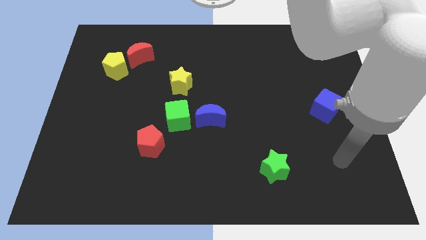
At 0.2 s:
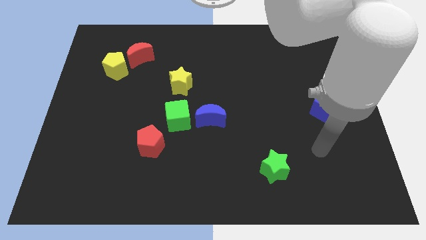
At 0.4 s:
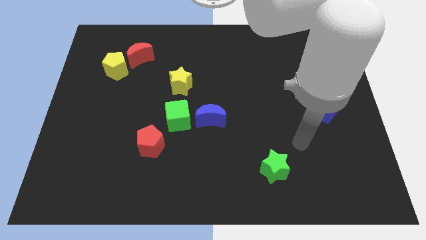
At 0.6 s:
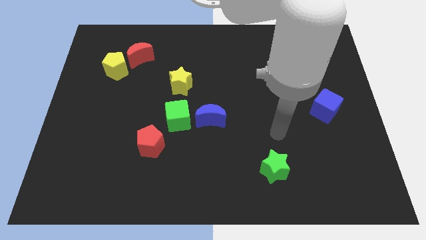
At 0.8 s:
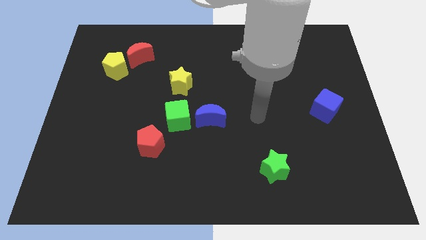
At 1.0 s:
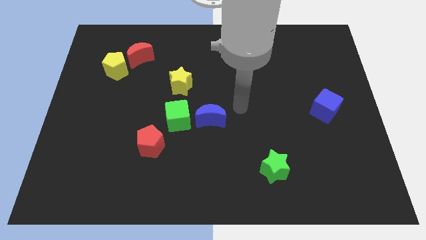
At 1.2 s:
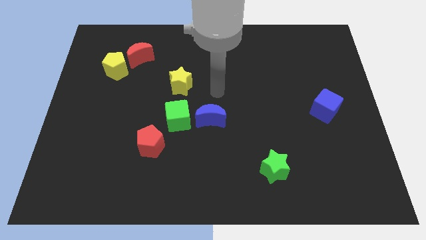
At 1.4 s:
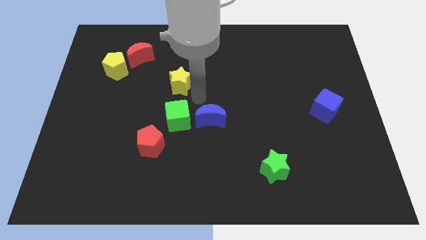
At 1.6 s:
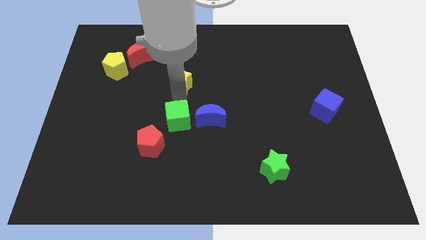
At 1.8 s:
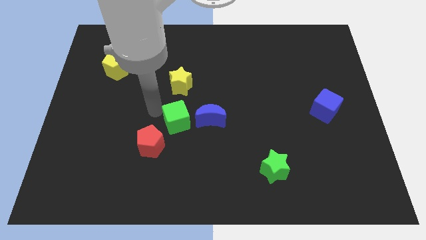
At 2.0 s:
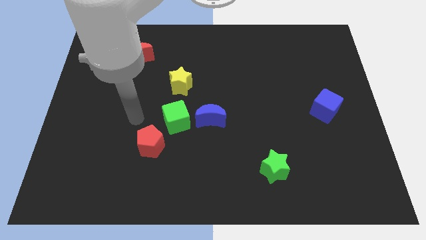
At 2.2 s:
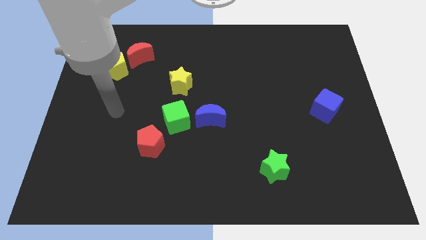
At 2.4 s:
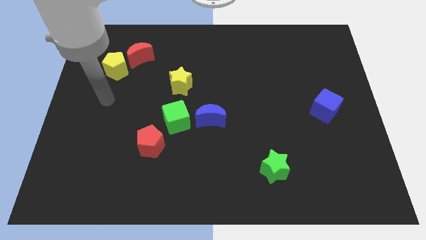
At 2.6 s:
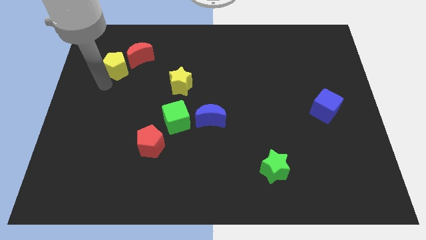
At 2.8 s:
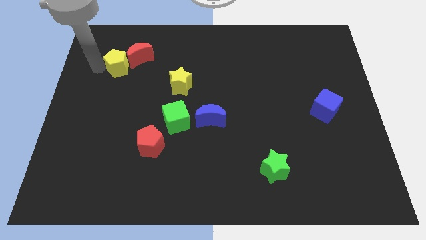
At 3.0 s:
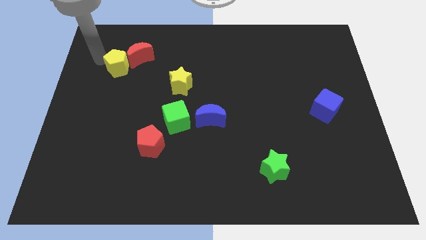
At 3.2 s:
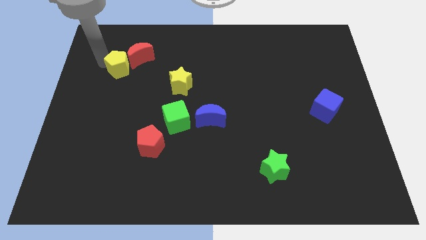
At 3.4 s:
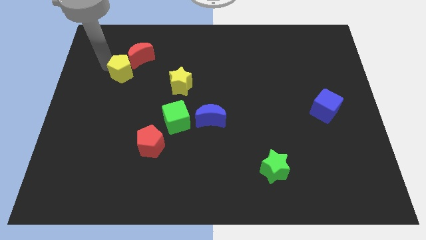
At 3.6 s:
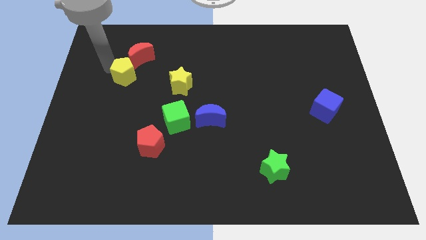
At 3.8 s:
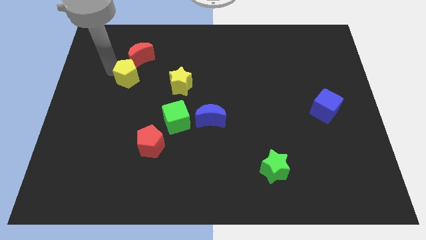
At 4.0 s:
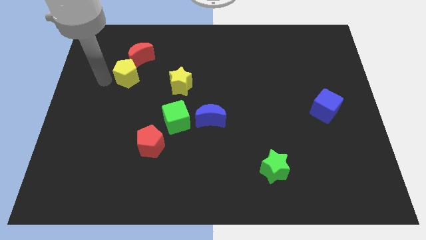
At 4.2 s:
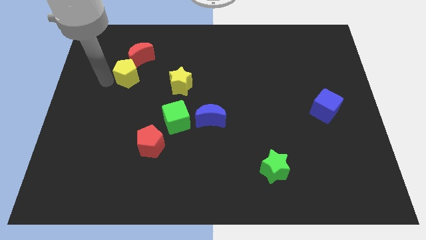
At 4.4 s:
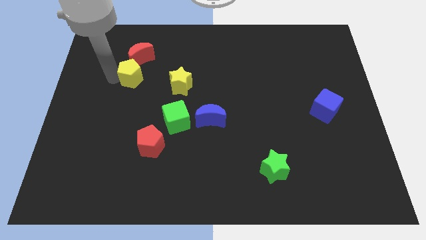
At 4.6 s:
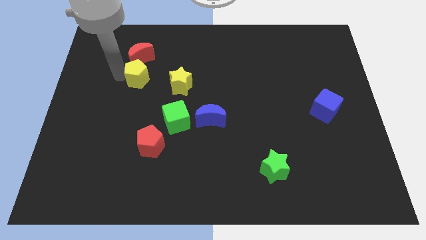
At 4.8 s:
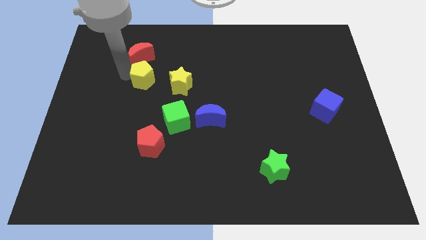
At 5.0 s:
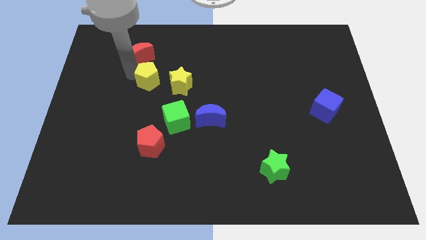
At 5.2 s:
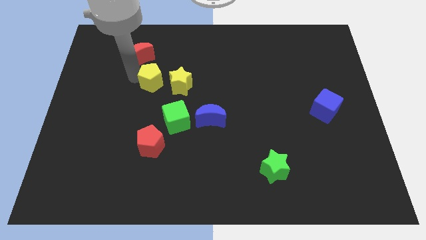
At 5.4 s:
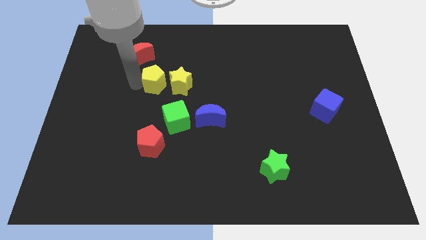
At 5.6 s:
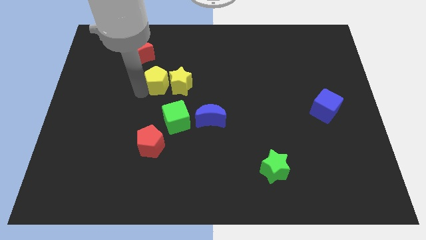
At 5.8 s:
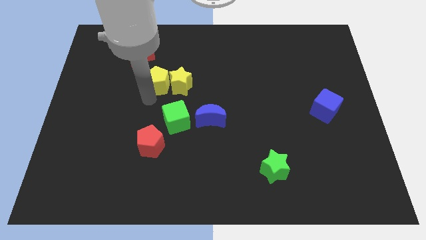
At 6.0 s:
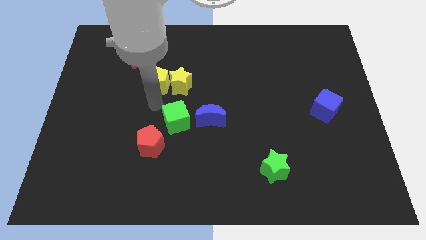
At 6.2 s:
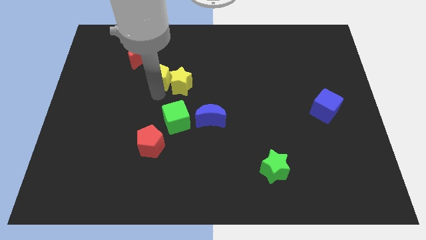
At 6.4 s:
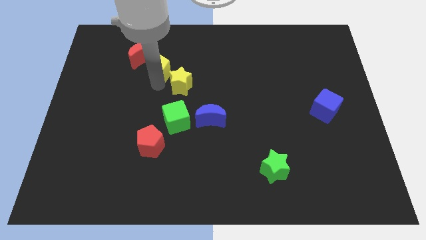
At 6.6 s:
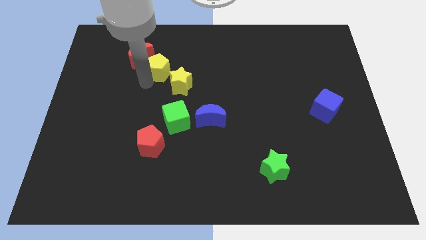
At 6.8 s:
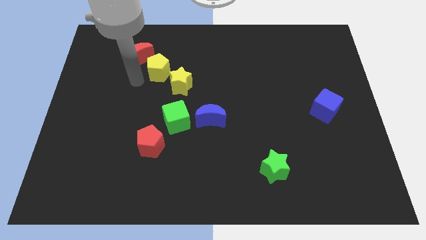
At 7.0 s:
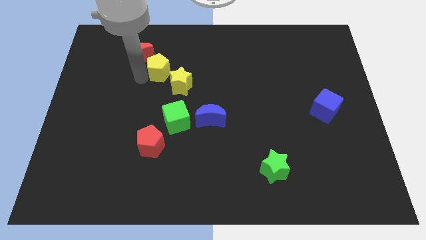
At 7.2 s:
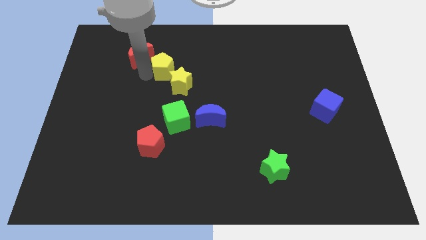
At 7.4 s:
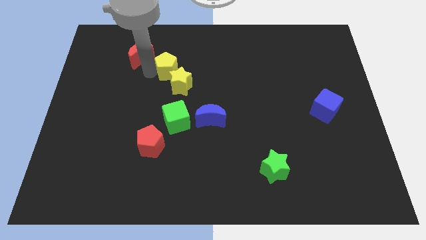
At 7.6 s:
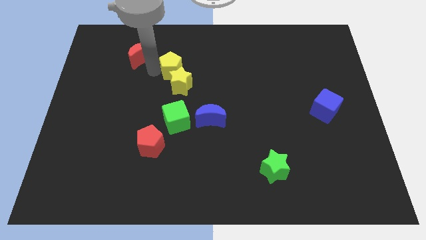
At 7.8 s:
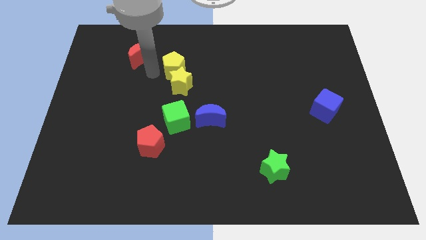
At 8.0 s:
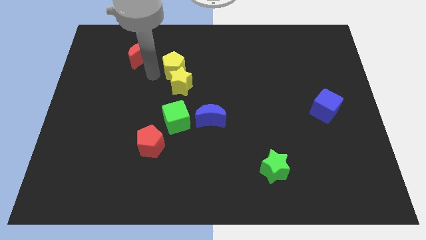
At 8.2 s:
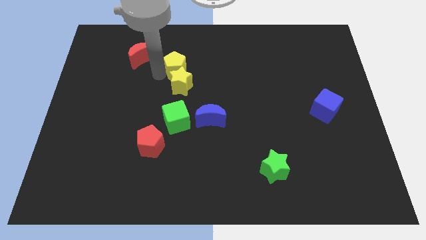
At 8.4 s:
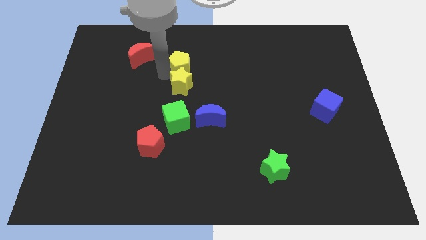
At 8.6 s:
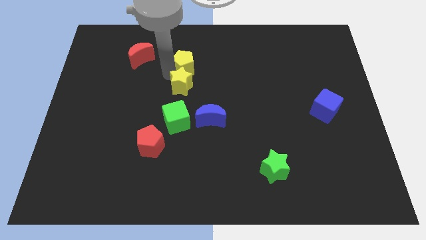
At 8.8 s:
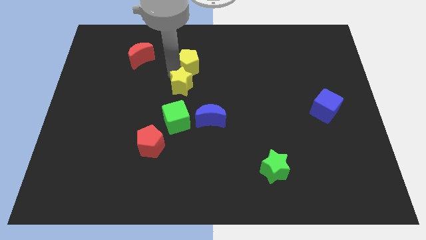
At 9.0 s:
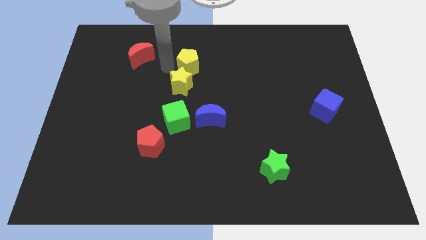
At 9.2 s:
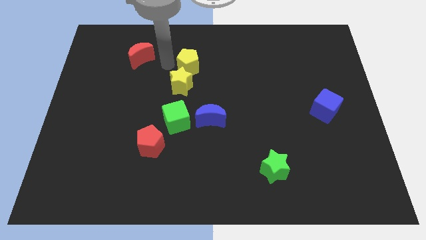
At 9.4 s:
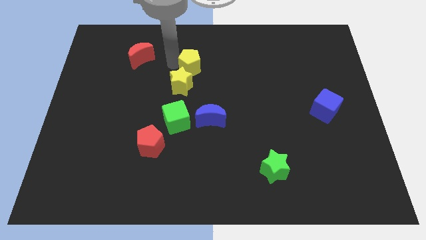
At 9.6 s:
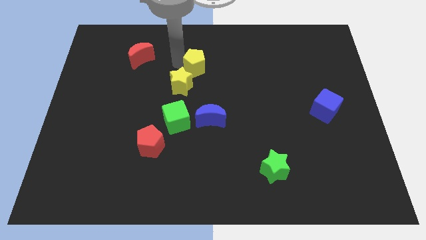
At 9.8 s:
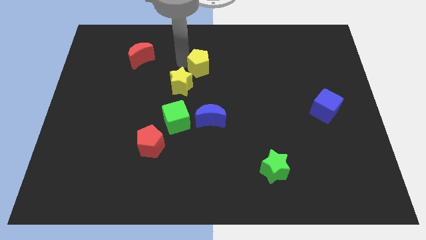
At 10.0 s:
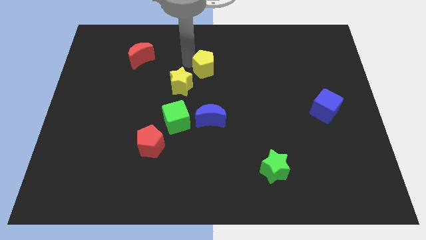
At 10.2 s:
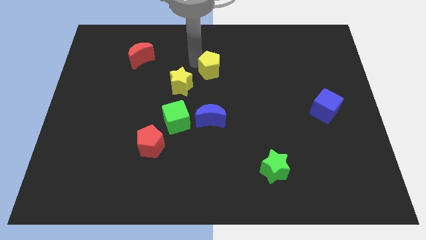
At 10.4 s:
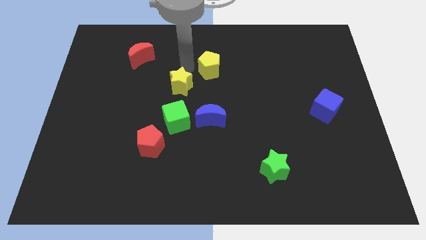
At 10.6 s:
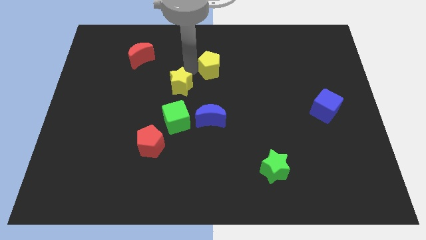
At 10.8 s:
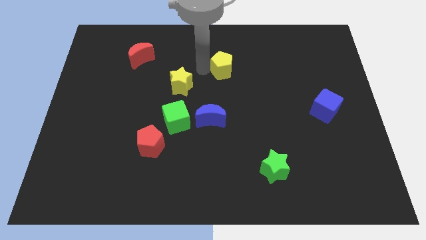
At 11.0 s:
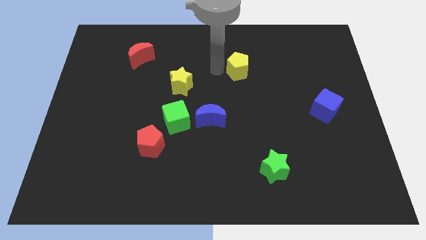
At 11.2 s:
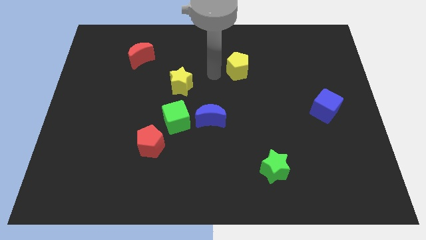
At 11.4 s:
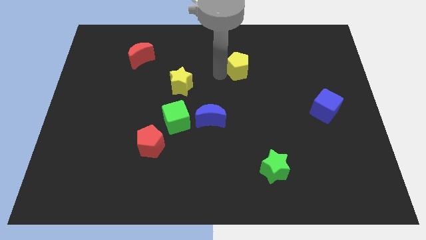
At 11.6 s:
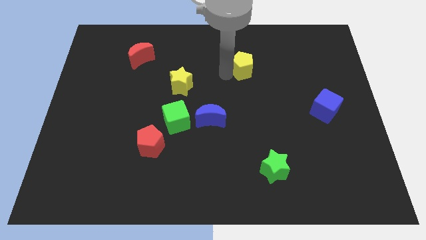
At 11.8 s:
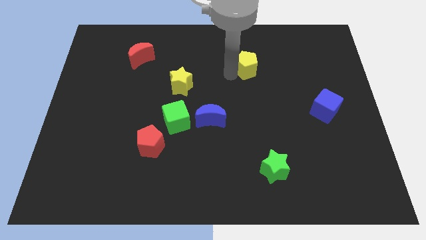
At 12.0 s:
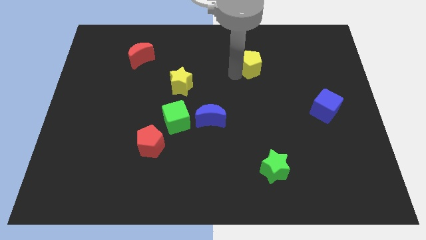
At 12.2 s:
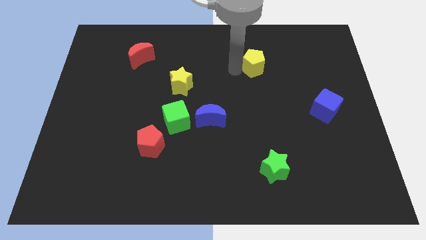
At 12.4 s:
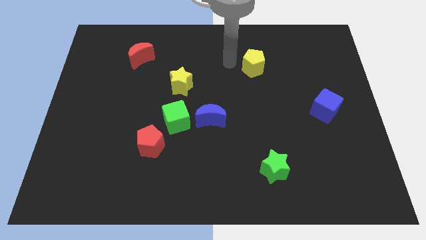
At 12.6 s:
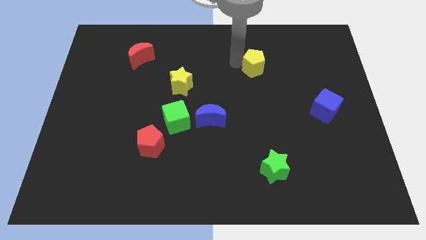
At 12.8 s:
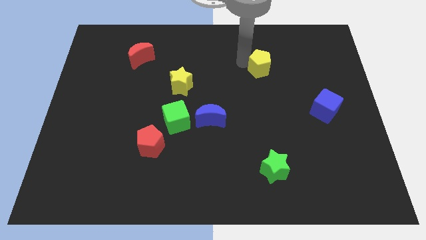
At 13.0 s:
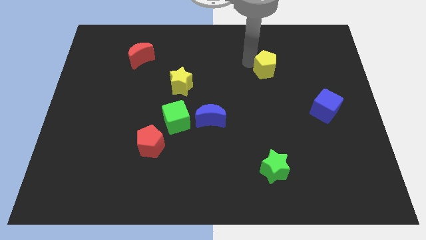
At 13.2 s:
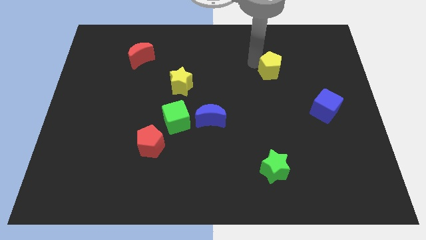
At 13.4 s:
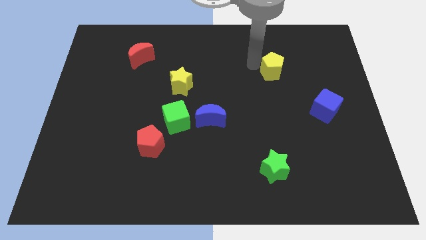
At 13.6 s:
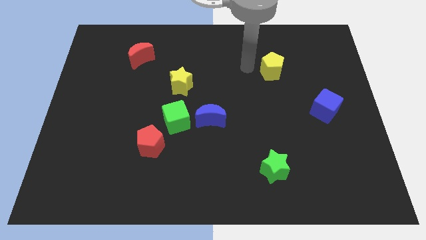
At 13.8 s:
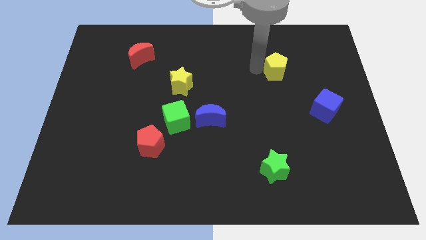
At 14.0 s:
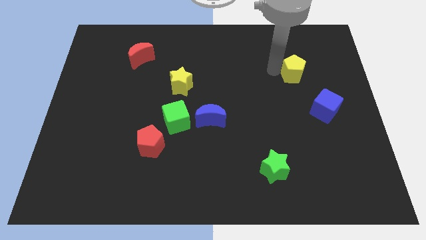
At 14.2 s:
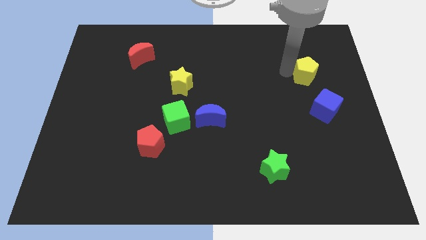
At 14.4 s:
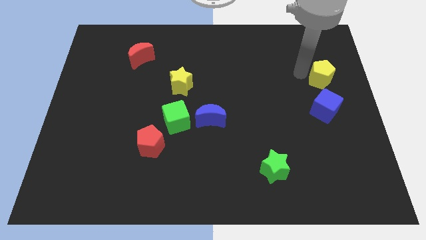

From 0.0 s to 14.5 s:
move the yellow pentagon to the right side

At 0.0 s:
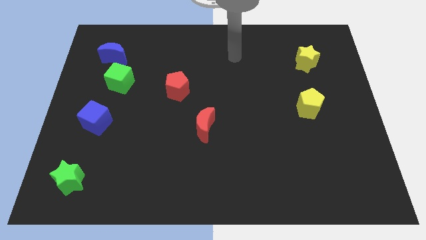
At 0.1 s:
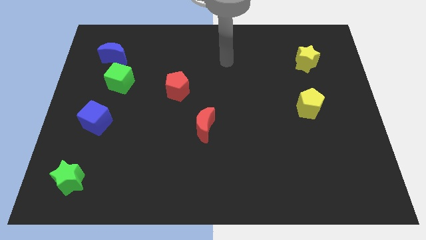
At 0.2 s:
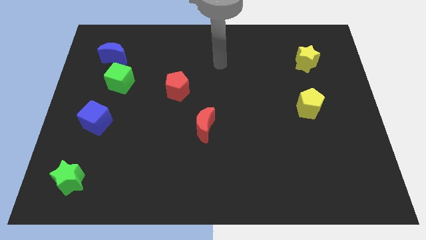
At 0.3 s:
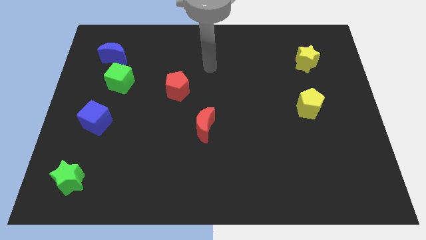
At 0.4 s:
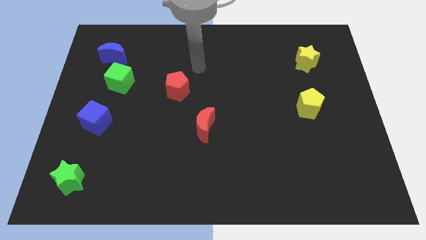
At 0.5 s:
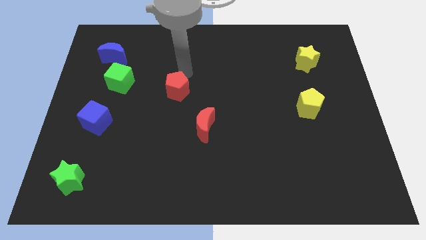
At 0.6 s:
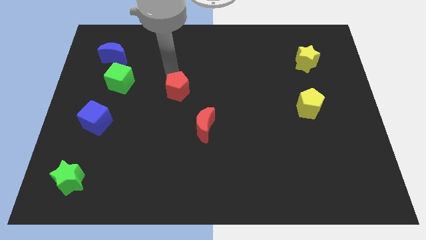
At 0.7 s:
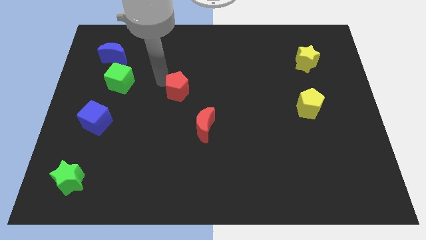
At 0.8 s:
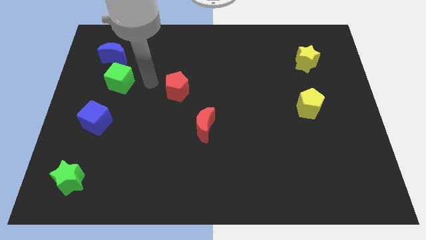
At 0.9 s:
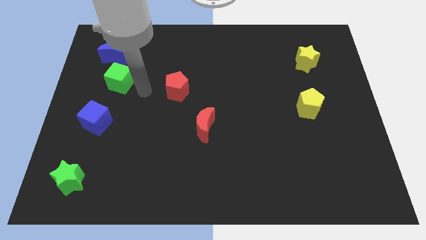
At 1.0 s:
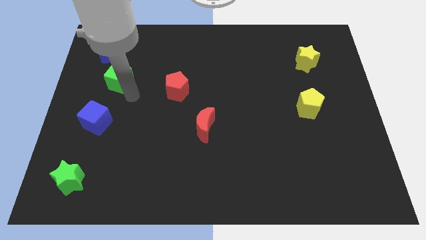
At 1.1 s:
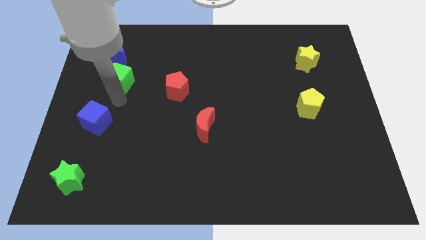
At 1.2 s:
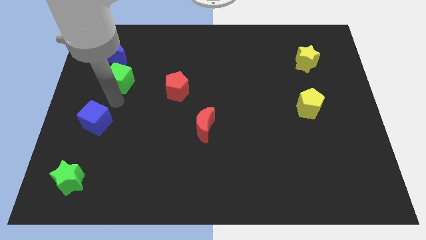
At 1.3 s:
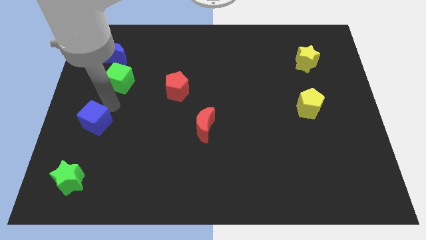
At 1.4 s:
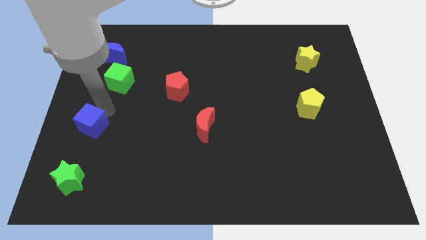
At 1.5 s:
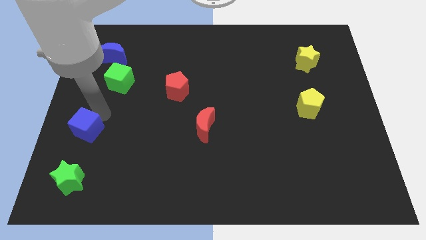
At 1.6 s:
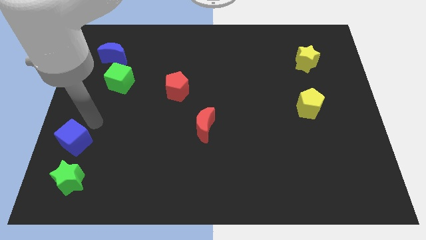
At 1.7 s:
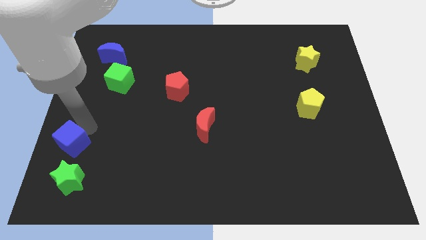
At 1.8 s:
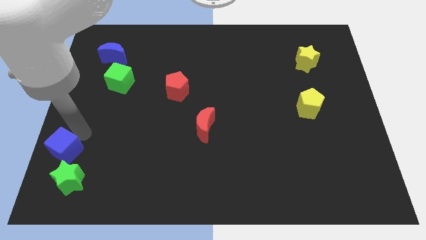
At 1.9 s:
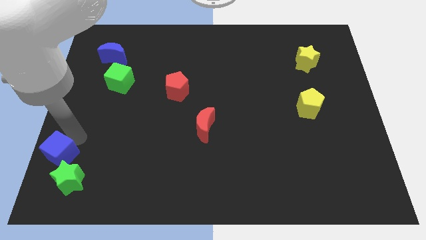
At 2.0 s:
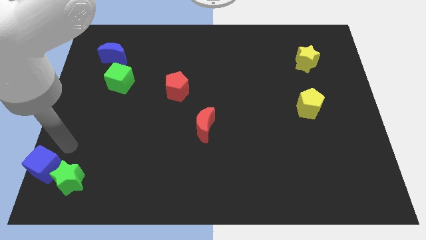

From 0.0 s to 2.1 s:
slide the blue cube to the bottom left of the board
